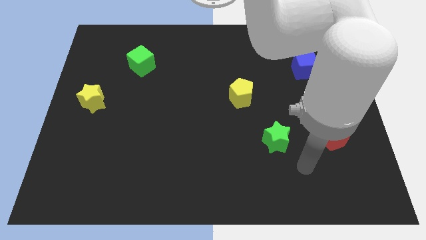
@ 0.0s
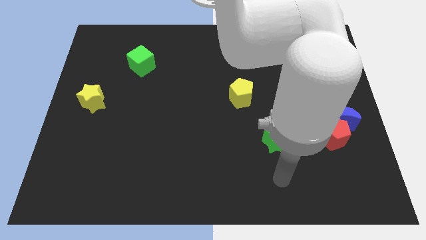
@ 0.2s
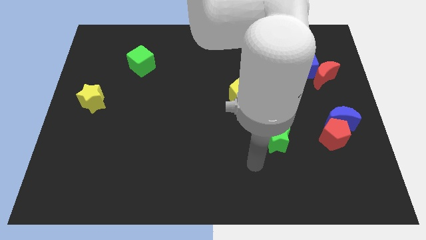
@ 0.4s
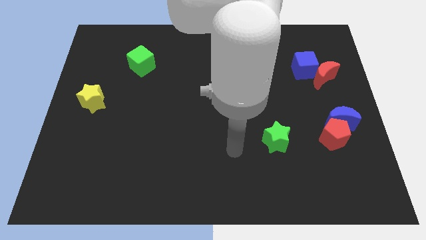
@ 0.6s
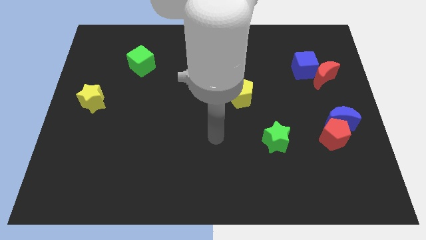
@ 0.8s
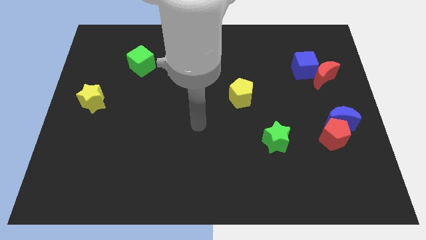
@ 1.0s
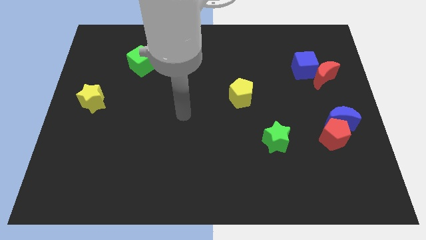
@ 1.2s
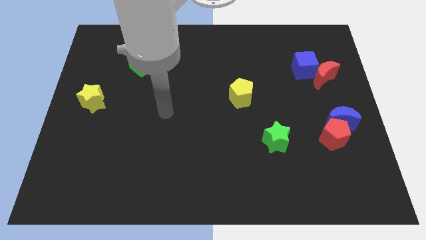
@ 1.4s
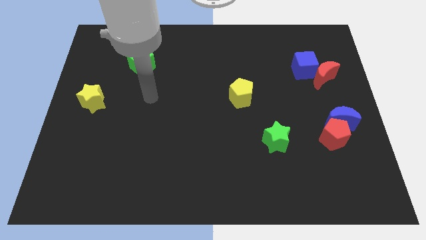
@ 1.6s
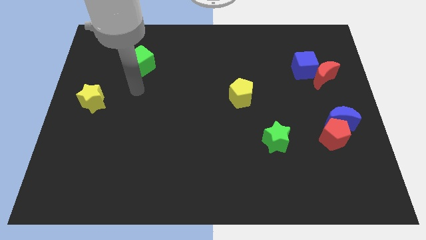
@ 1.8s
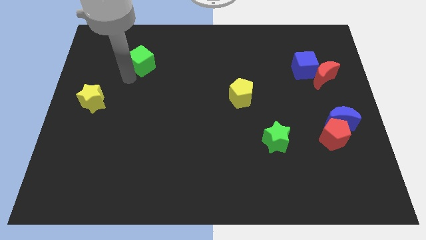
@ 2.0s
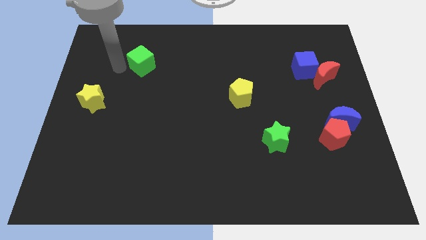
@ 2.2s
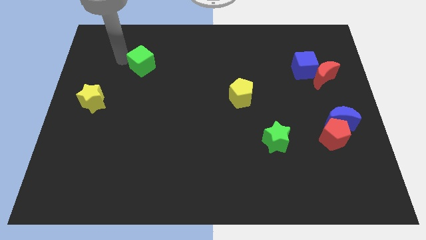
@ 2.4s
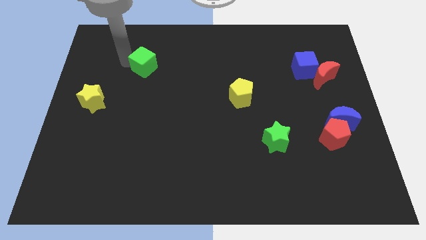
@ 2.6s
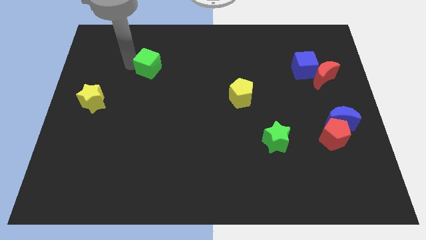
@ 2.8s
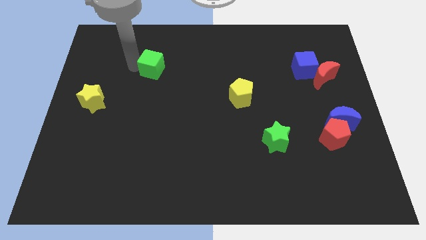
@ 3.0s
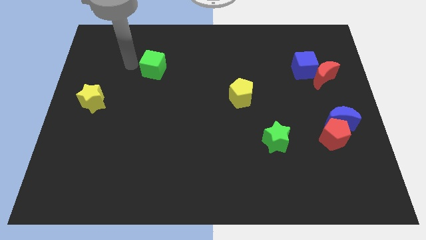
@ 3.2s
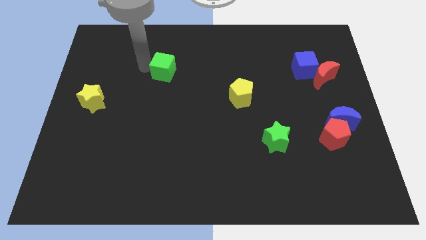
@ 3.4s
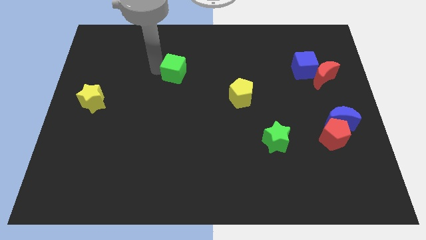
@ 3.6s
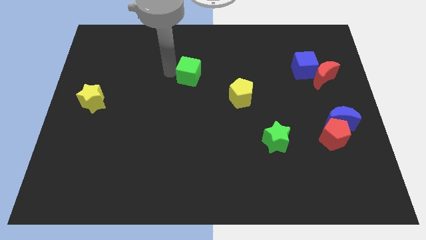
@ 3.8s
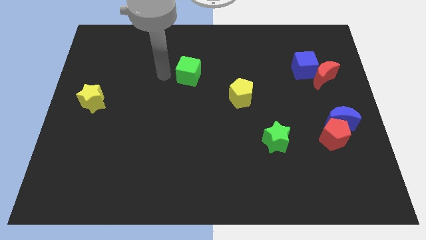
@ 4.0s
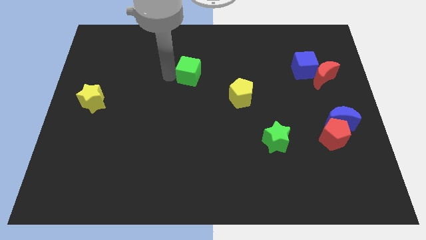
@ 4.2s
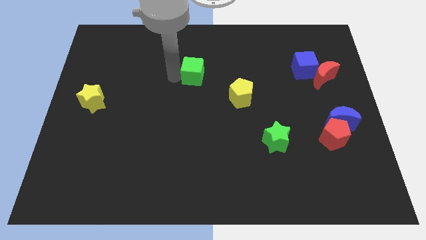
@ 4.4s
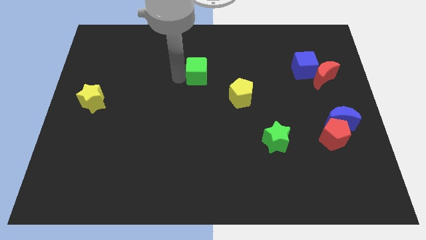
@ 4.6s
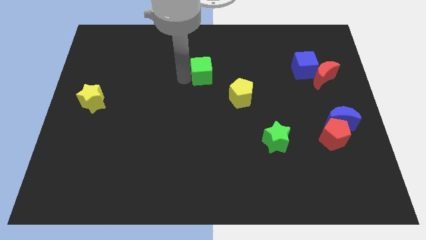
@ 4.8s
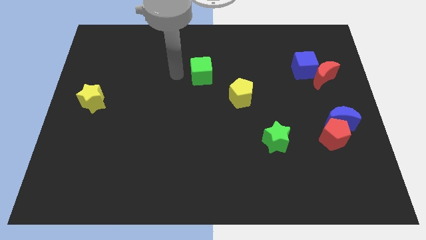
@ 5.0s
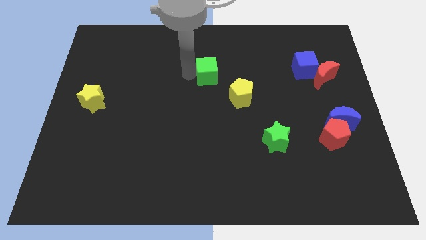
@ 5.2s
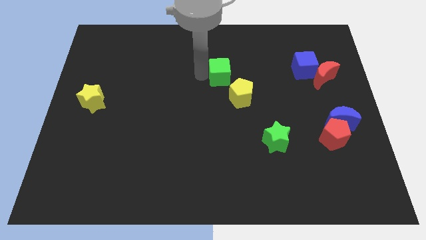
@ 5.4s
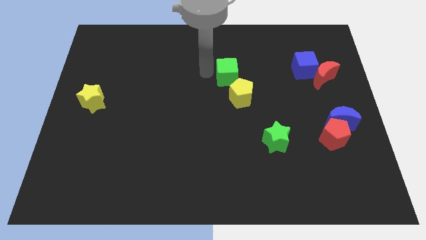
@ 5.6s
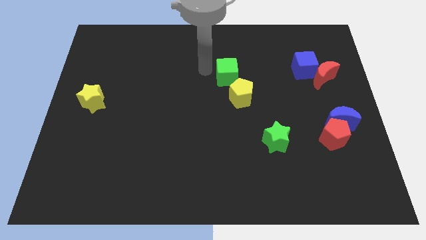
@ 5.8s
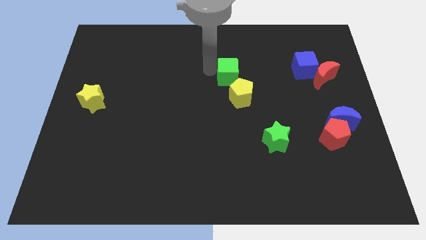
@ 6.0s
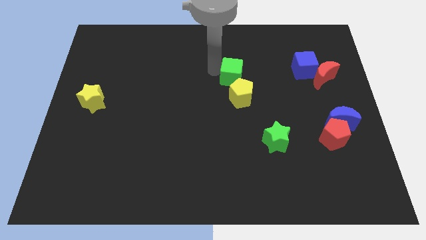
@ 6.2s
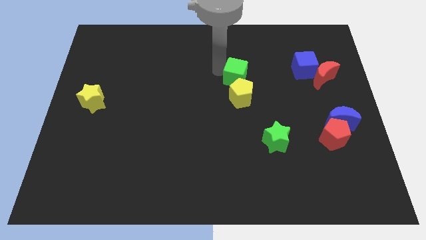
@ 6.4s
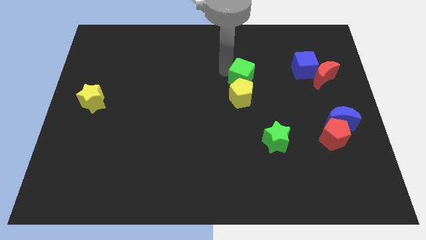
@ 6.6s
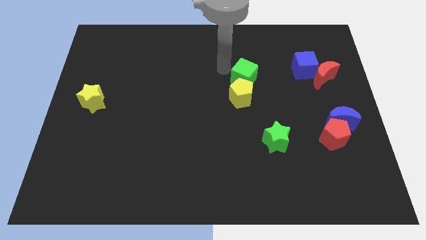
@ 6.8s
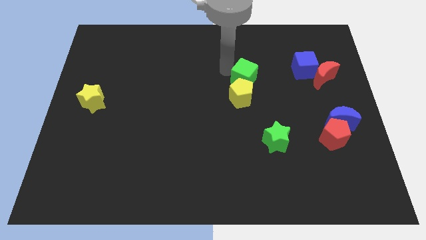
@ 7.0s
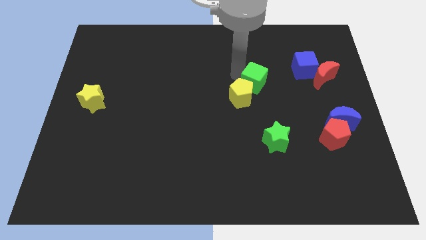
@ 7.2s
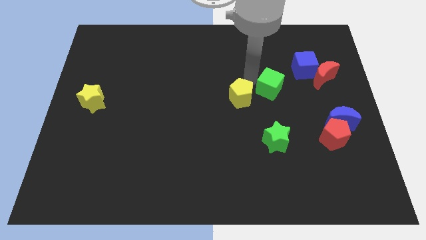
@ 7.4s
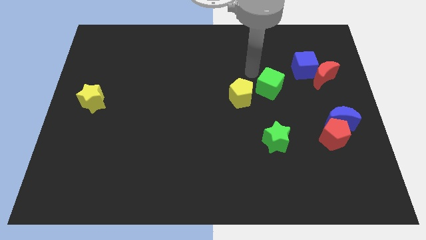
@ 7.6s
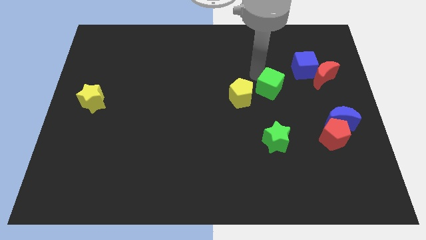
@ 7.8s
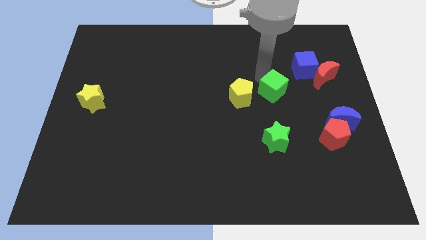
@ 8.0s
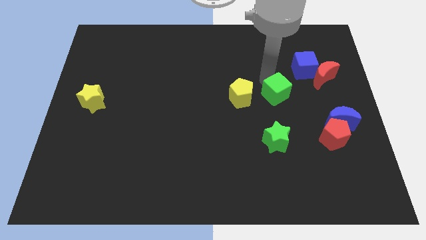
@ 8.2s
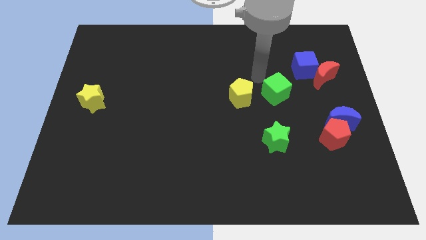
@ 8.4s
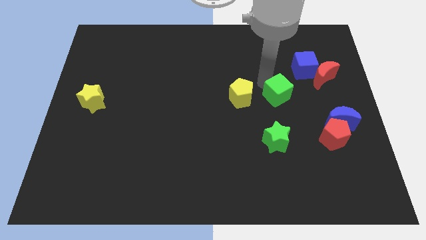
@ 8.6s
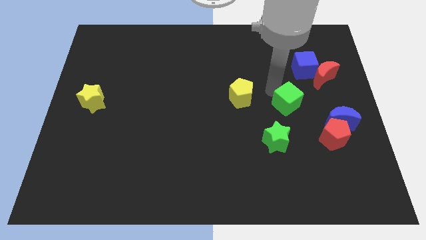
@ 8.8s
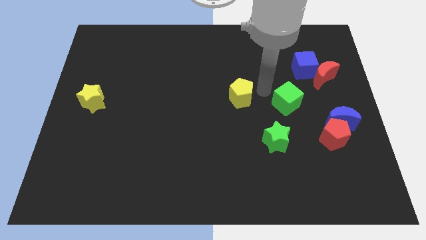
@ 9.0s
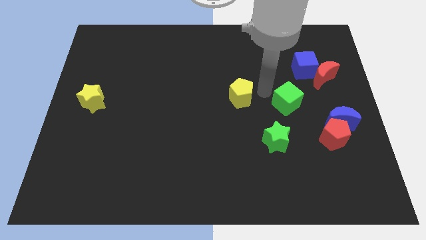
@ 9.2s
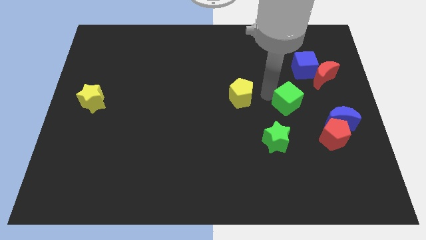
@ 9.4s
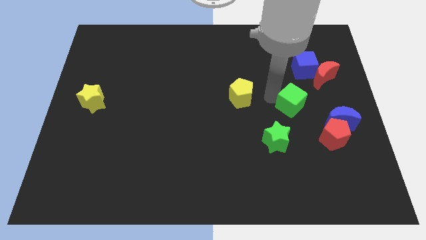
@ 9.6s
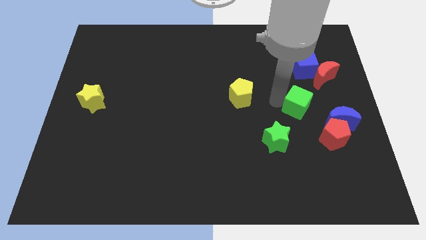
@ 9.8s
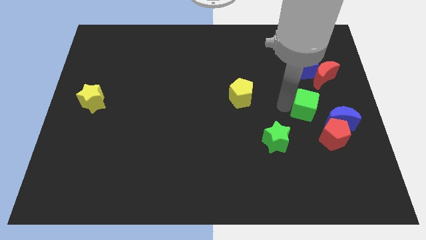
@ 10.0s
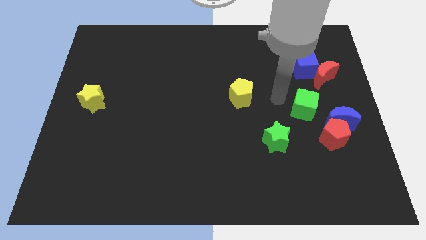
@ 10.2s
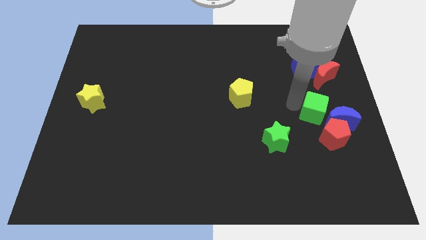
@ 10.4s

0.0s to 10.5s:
slide the green cube next to the blue moon

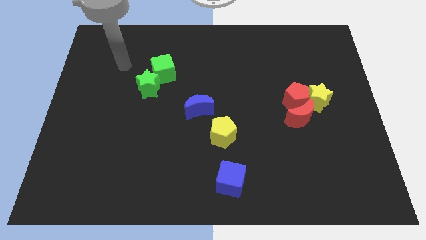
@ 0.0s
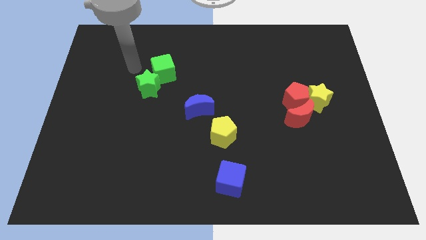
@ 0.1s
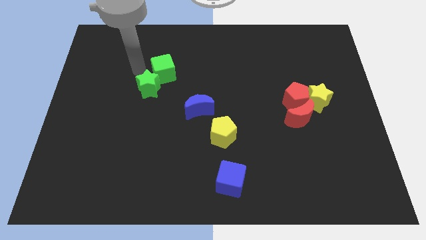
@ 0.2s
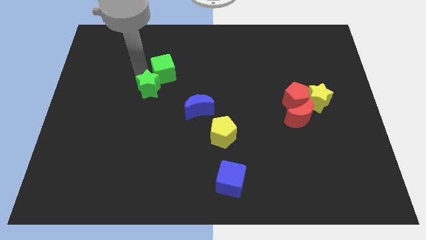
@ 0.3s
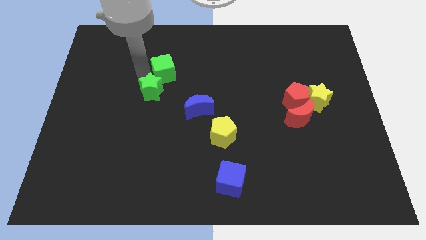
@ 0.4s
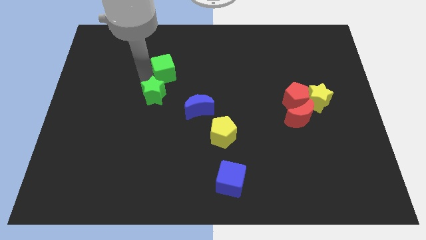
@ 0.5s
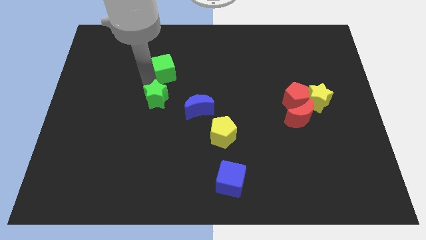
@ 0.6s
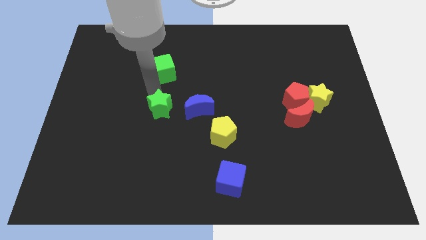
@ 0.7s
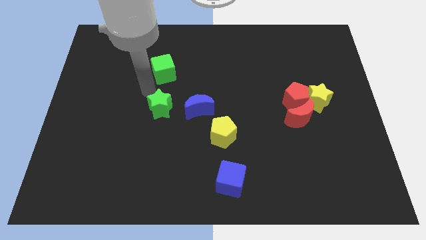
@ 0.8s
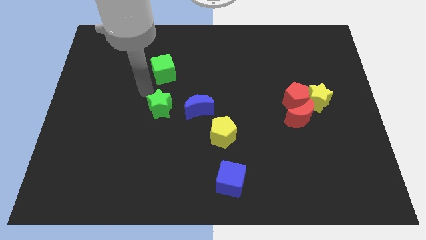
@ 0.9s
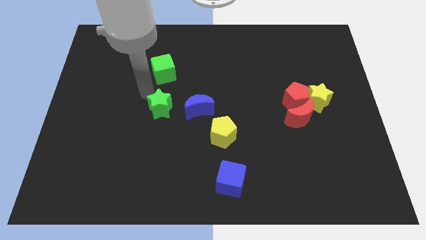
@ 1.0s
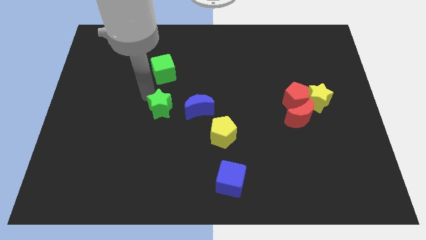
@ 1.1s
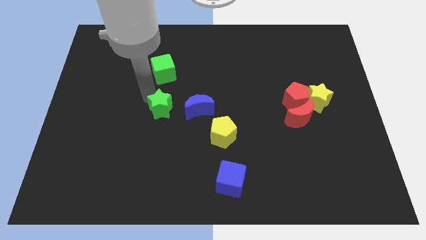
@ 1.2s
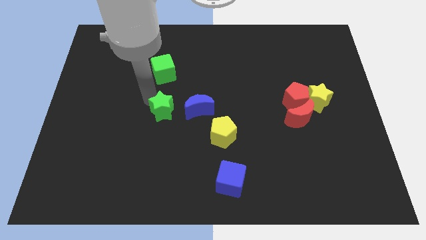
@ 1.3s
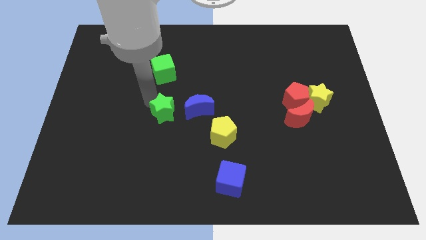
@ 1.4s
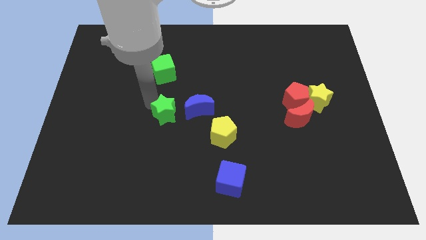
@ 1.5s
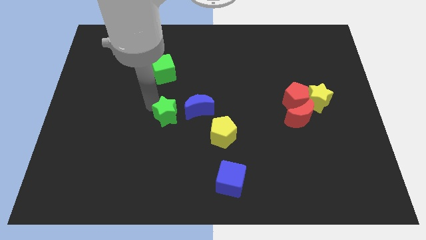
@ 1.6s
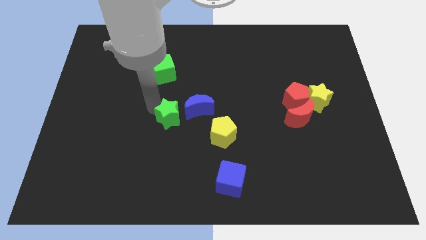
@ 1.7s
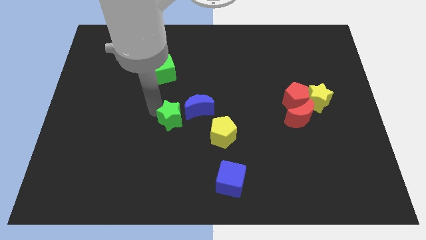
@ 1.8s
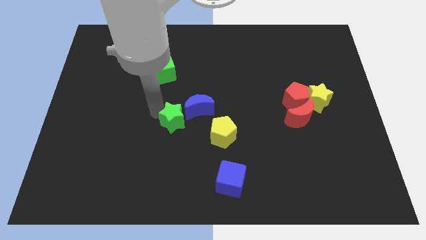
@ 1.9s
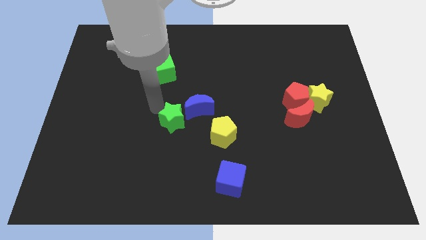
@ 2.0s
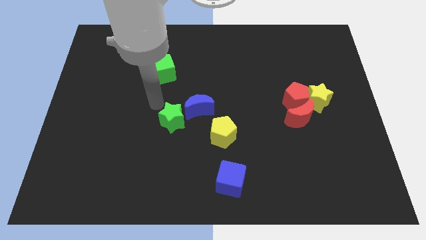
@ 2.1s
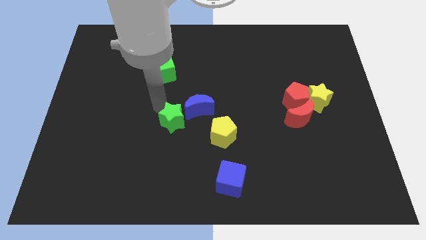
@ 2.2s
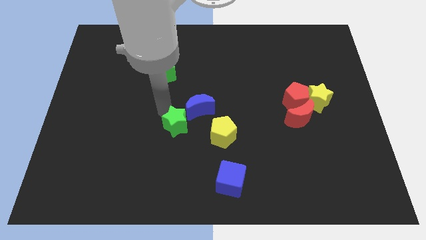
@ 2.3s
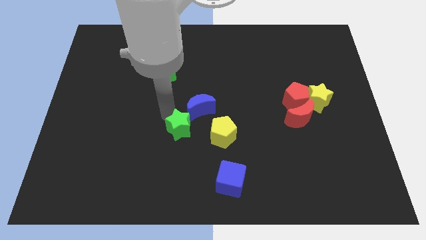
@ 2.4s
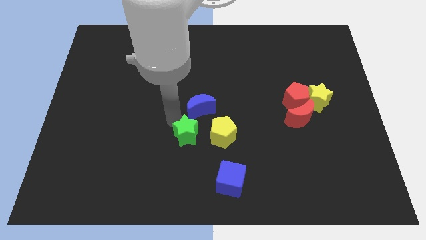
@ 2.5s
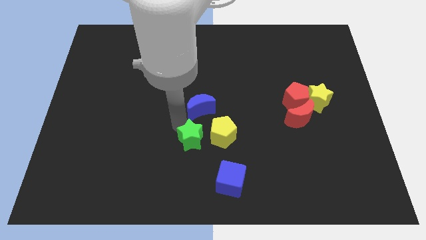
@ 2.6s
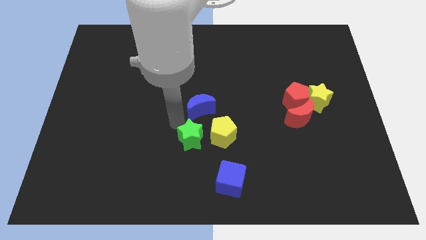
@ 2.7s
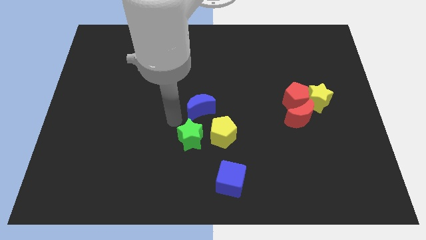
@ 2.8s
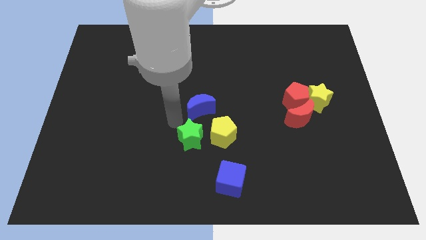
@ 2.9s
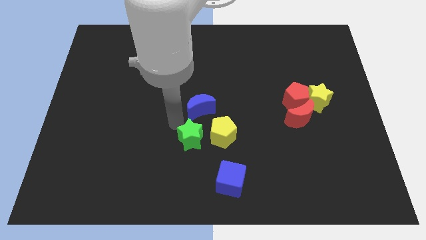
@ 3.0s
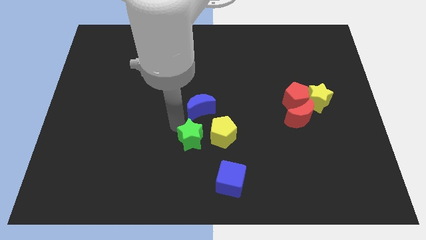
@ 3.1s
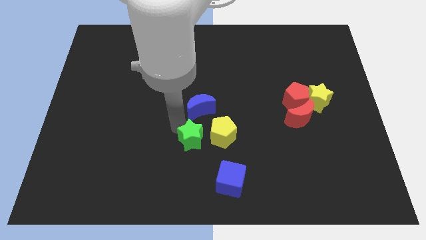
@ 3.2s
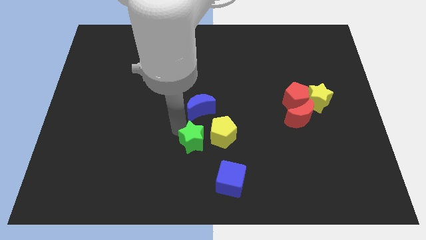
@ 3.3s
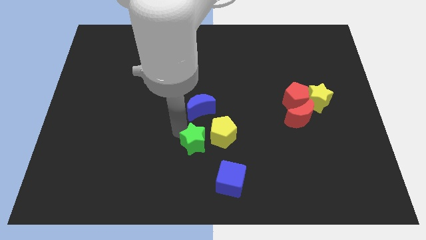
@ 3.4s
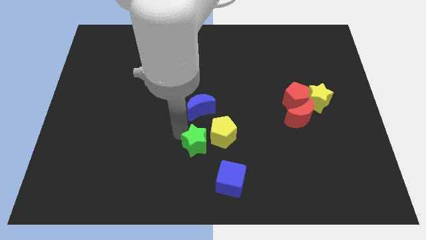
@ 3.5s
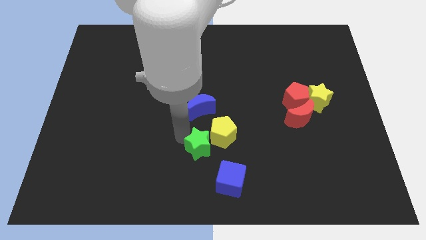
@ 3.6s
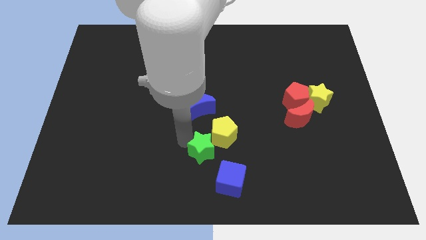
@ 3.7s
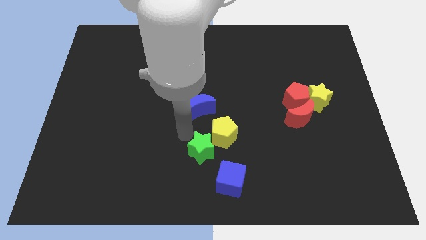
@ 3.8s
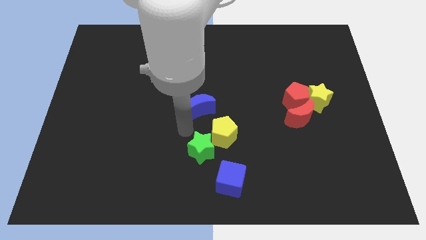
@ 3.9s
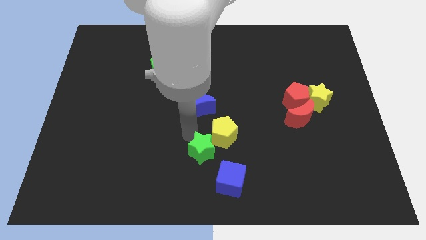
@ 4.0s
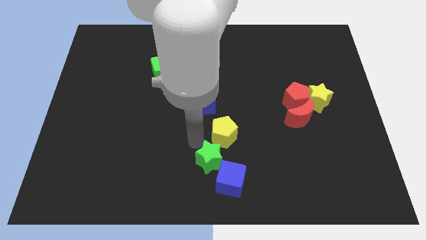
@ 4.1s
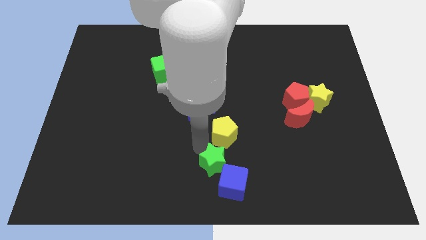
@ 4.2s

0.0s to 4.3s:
put the green star close to the blue cube
